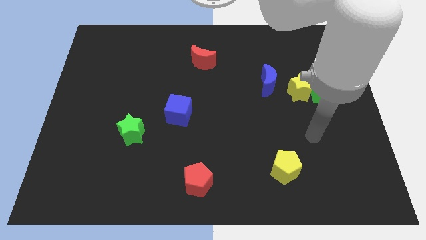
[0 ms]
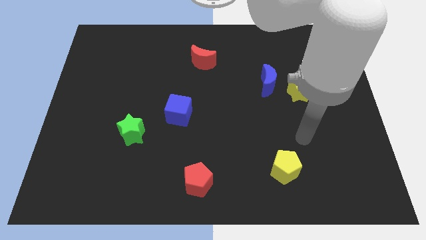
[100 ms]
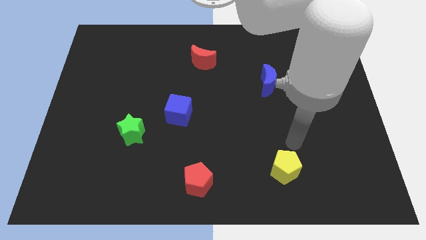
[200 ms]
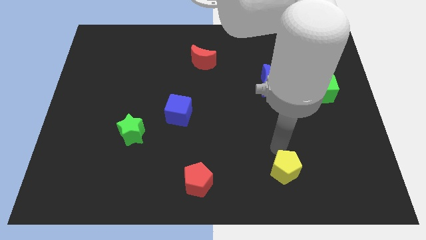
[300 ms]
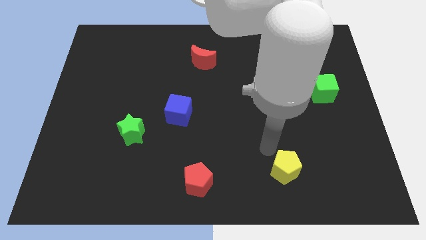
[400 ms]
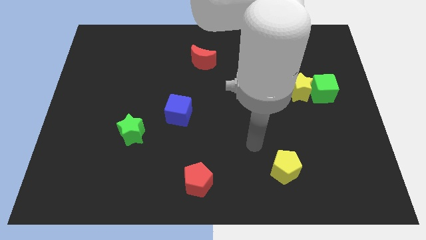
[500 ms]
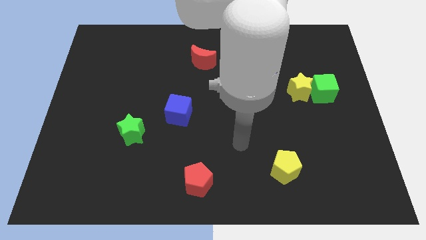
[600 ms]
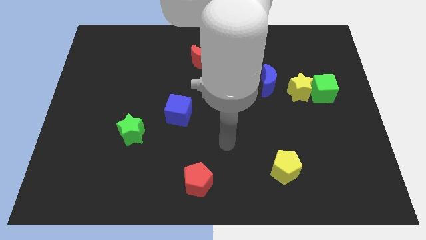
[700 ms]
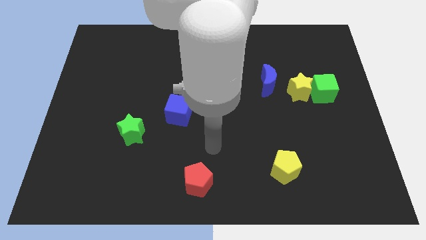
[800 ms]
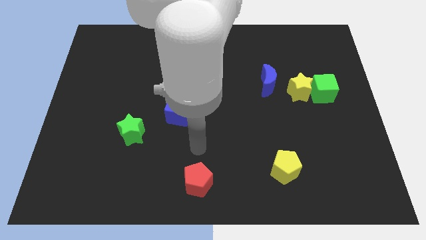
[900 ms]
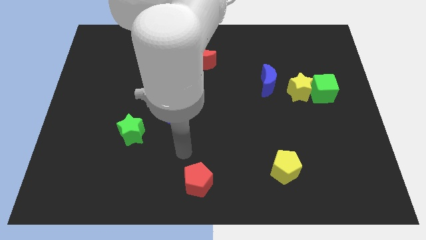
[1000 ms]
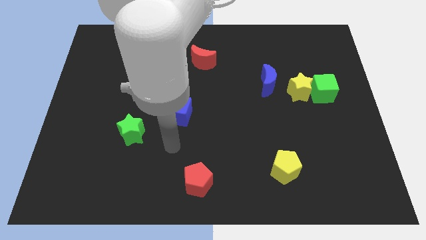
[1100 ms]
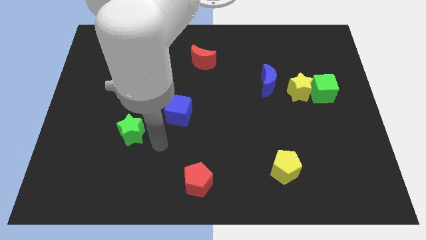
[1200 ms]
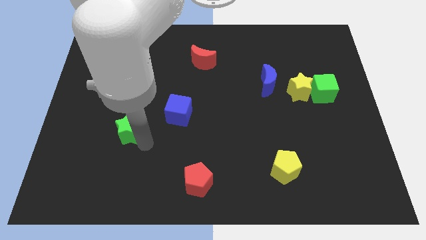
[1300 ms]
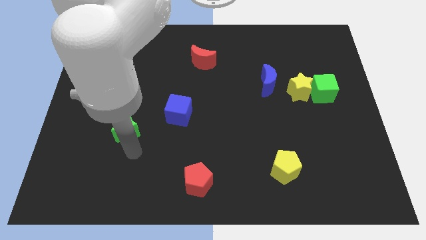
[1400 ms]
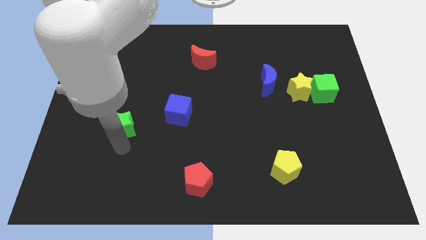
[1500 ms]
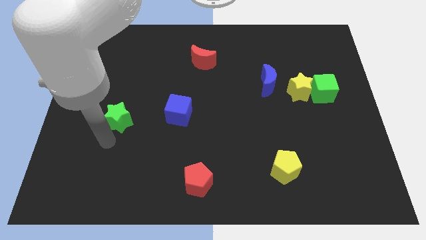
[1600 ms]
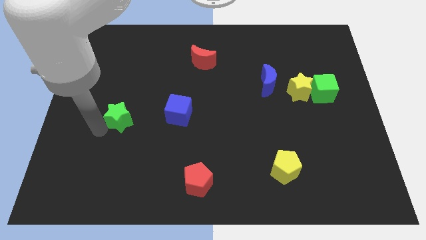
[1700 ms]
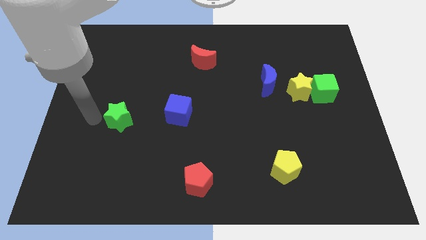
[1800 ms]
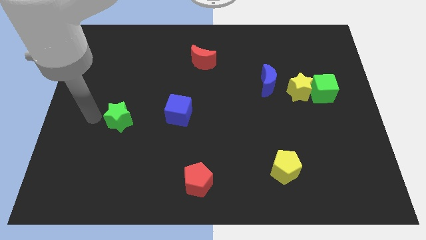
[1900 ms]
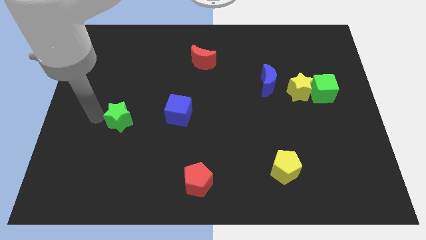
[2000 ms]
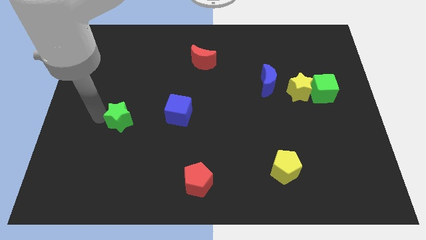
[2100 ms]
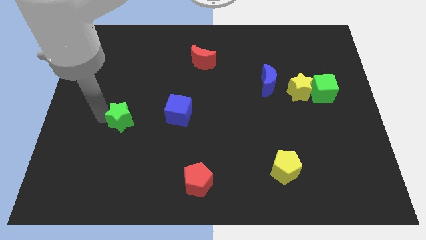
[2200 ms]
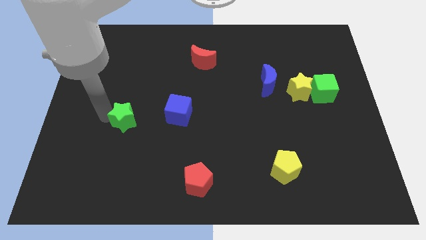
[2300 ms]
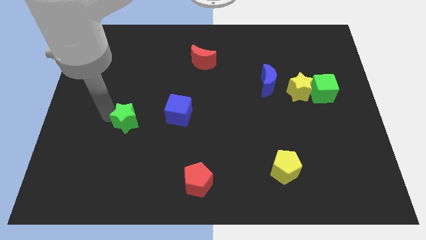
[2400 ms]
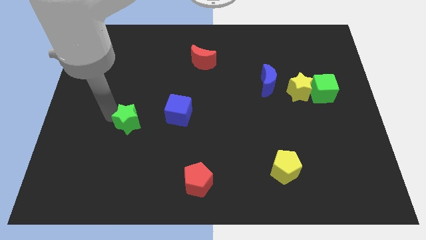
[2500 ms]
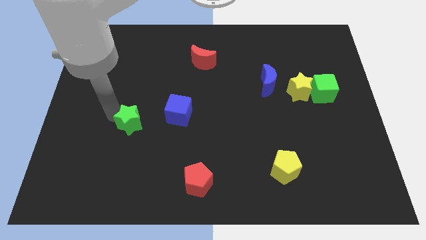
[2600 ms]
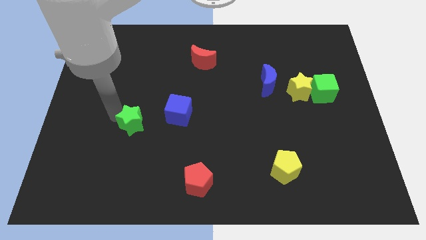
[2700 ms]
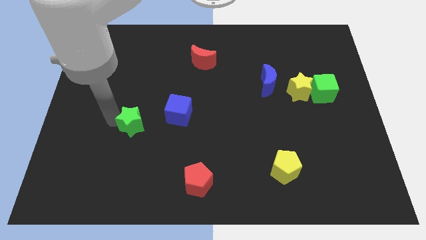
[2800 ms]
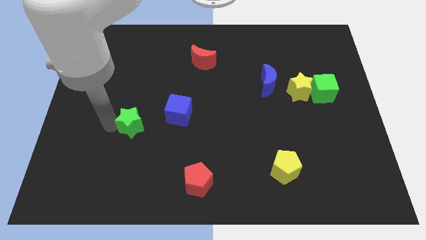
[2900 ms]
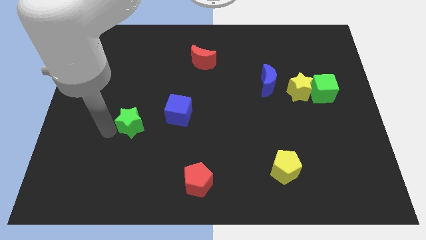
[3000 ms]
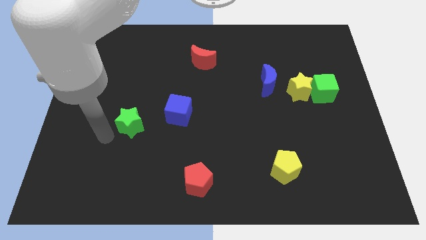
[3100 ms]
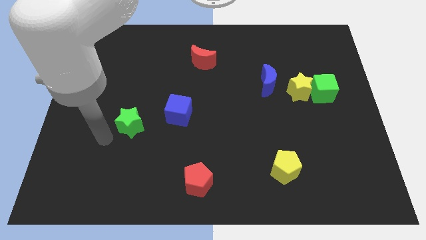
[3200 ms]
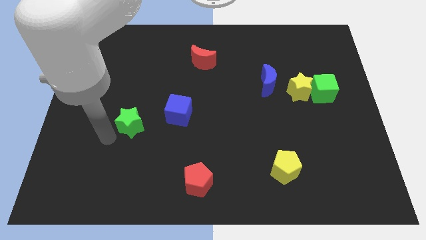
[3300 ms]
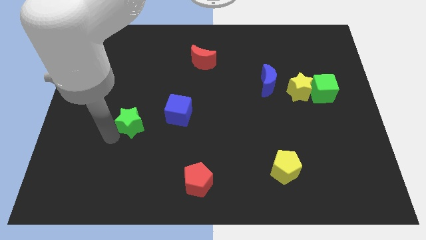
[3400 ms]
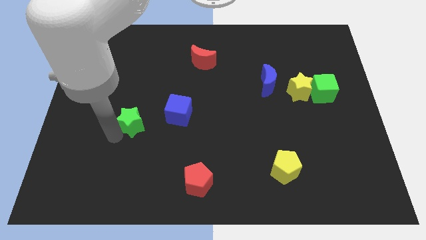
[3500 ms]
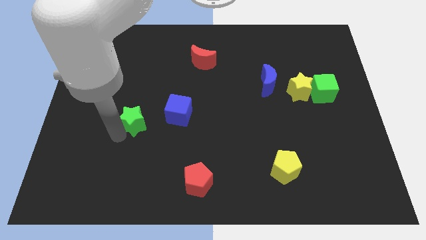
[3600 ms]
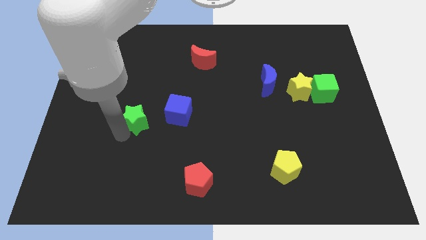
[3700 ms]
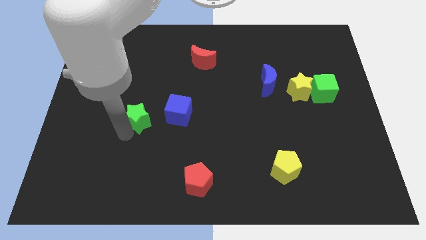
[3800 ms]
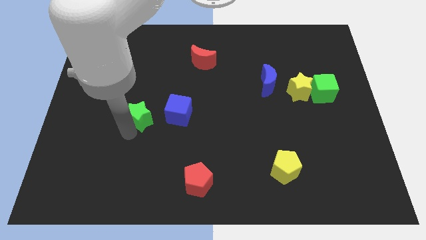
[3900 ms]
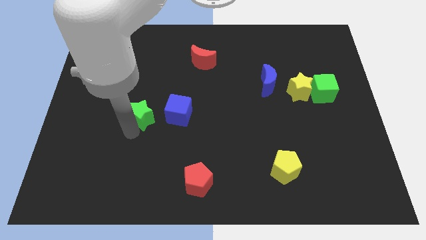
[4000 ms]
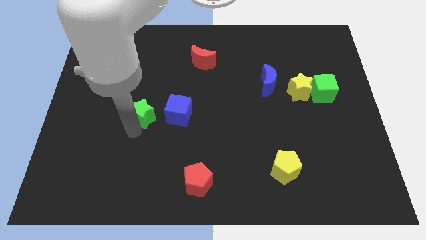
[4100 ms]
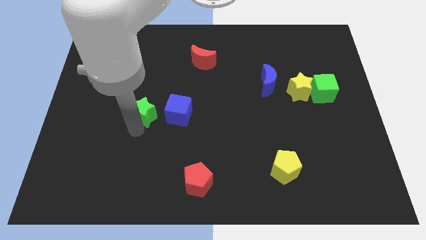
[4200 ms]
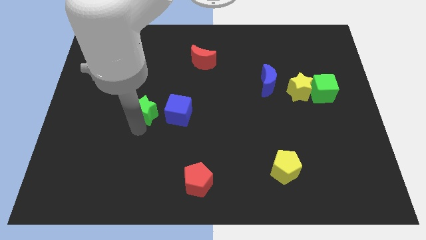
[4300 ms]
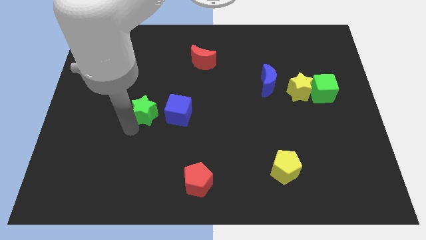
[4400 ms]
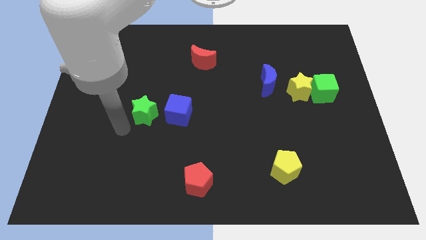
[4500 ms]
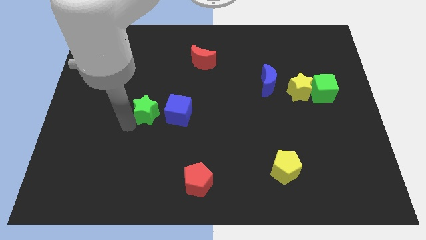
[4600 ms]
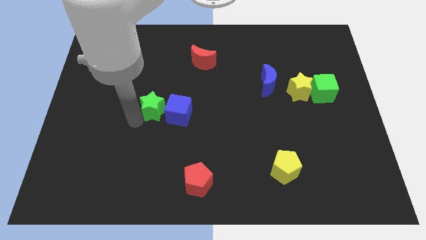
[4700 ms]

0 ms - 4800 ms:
slide the green star a bit up and then right

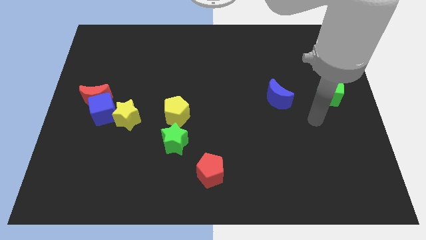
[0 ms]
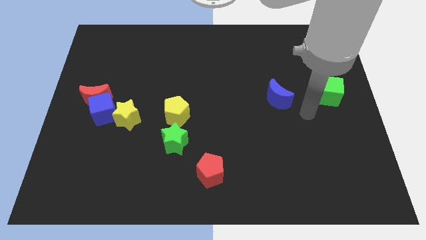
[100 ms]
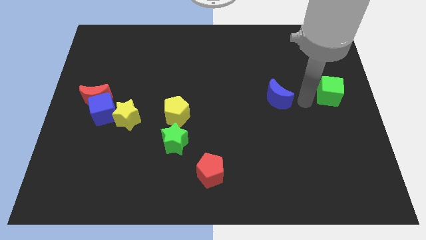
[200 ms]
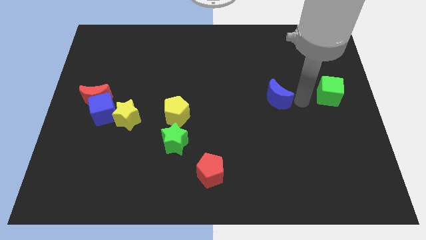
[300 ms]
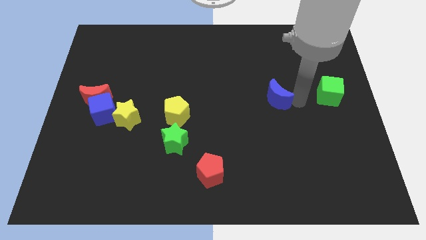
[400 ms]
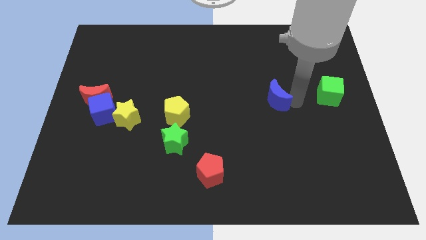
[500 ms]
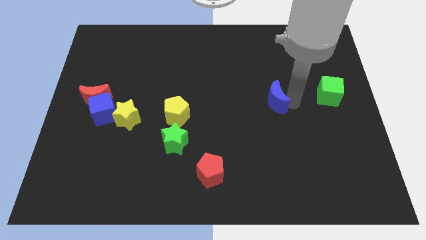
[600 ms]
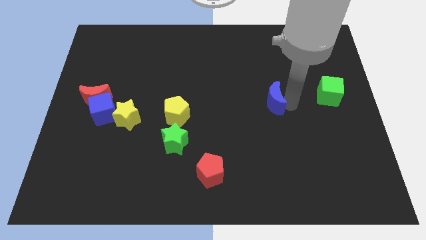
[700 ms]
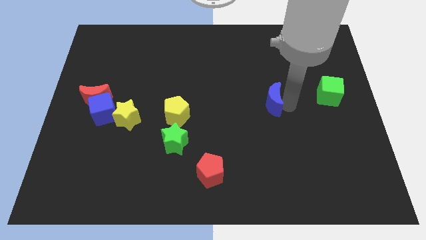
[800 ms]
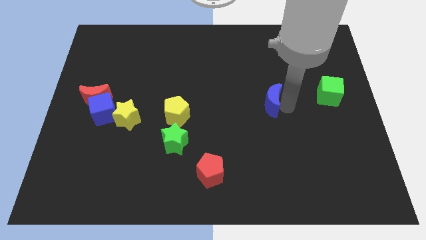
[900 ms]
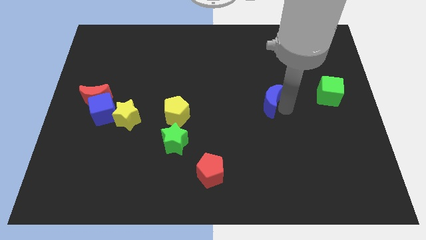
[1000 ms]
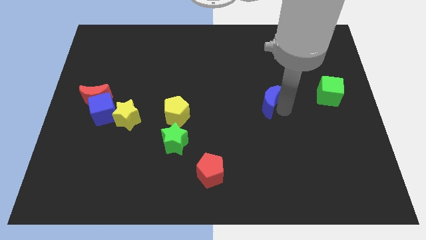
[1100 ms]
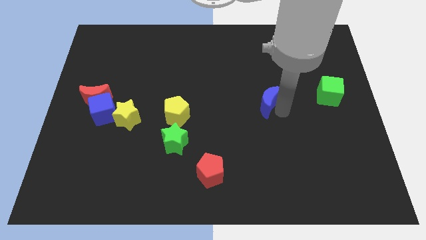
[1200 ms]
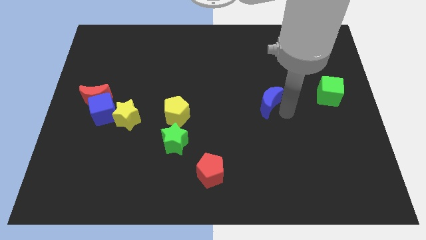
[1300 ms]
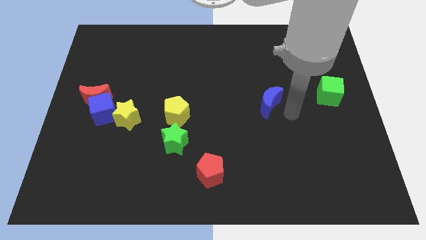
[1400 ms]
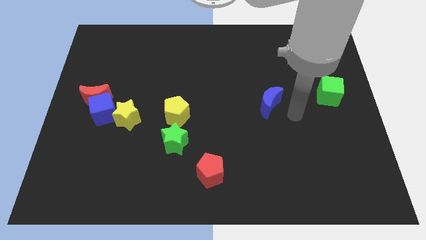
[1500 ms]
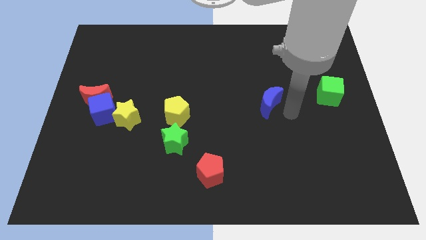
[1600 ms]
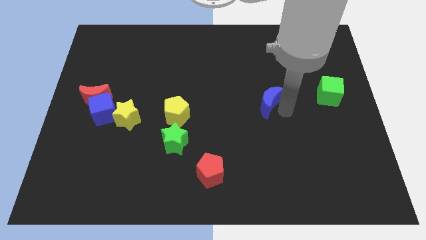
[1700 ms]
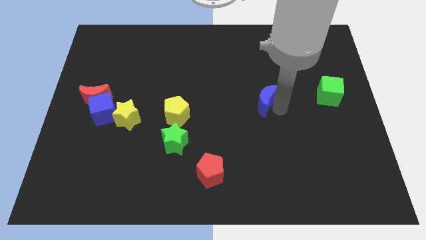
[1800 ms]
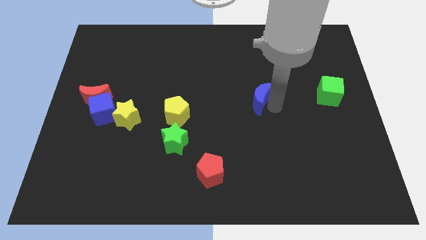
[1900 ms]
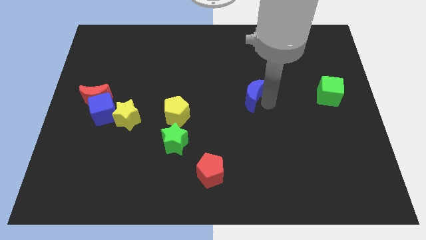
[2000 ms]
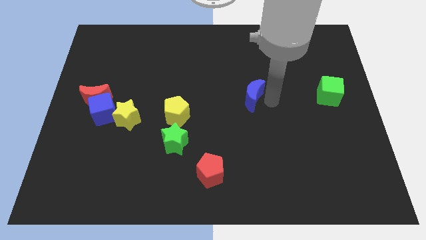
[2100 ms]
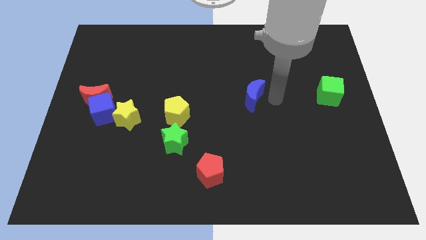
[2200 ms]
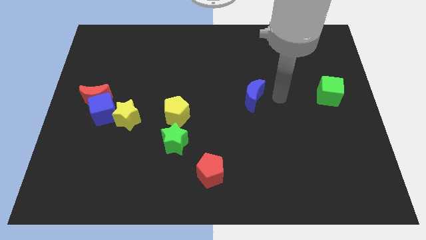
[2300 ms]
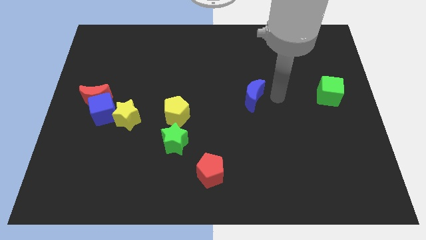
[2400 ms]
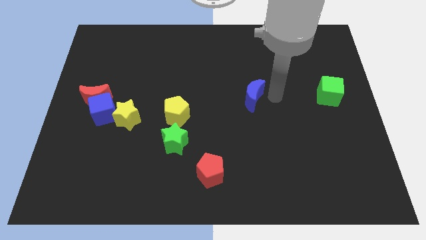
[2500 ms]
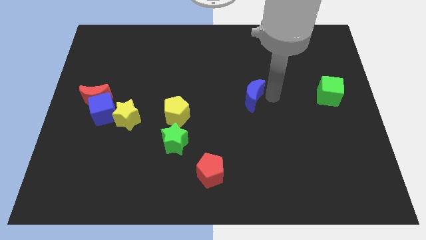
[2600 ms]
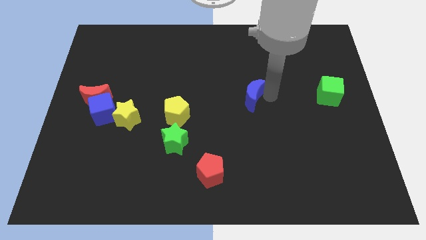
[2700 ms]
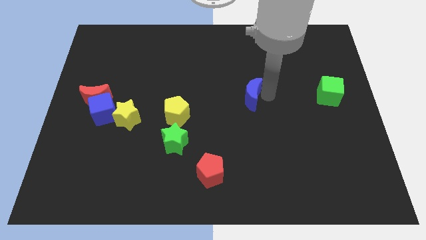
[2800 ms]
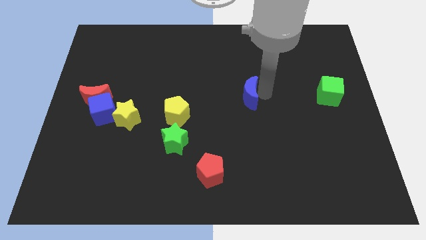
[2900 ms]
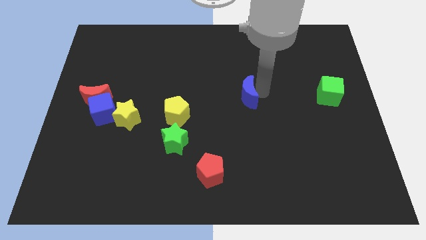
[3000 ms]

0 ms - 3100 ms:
slightly slide the blue moon left
